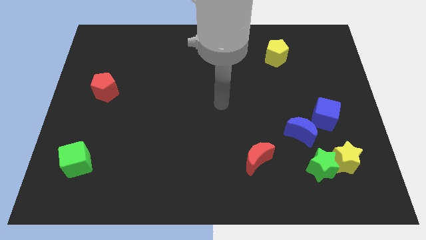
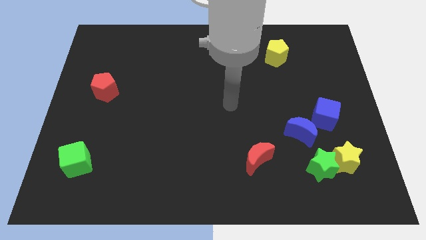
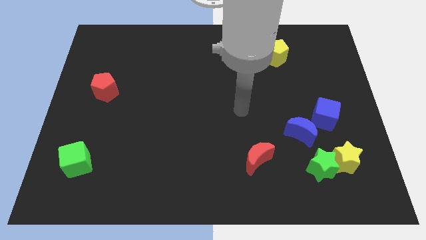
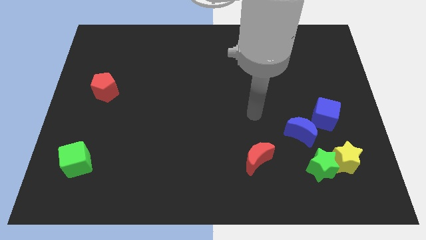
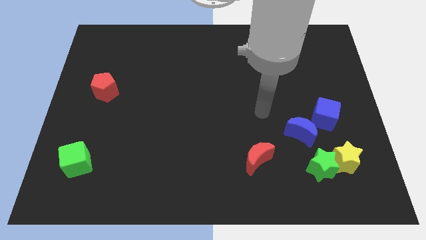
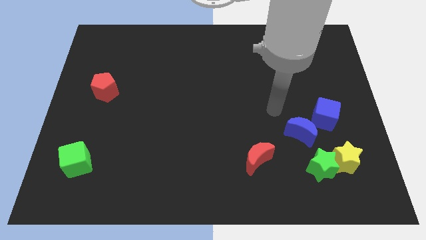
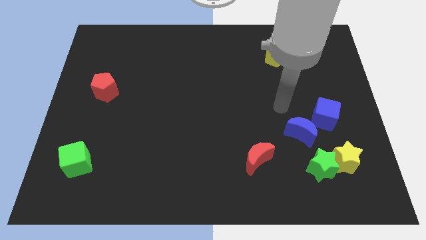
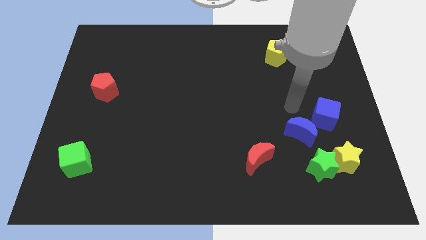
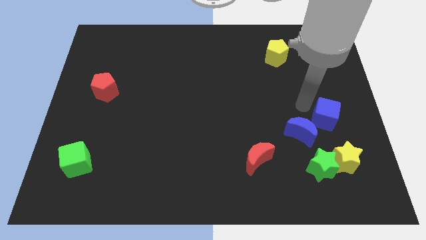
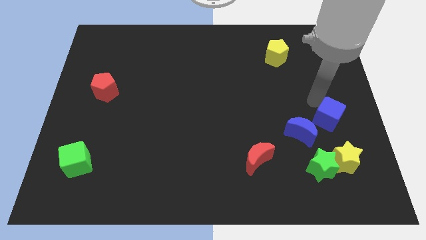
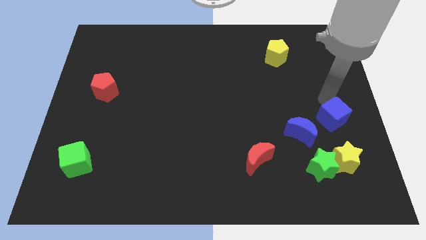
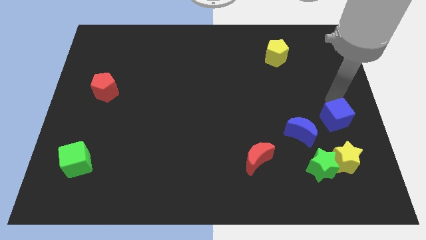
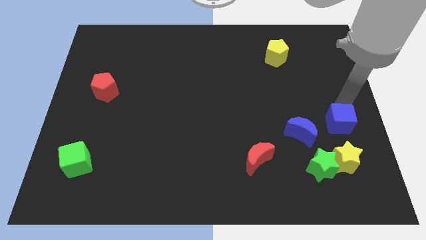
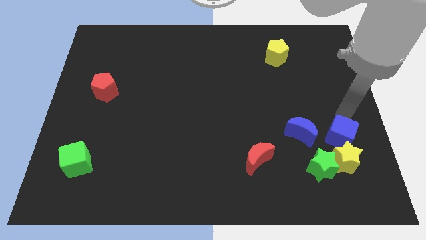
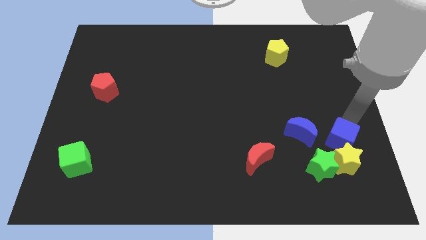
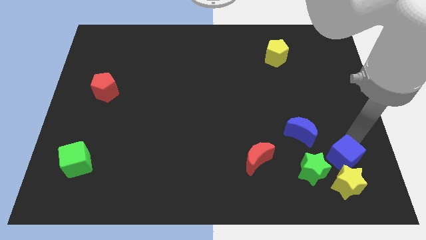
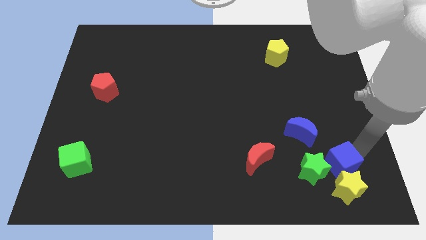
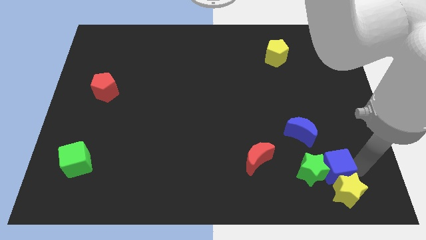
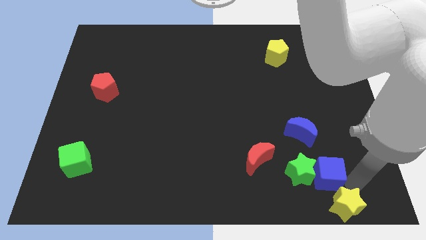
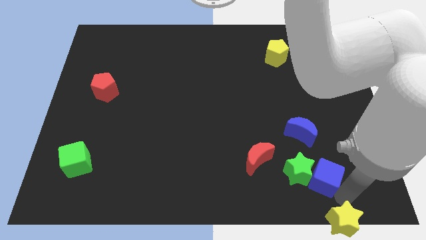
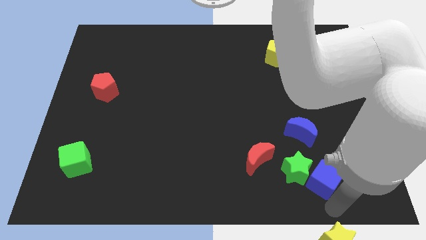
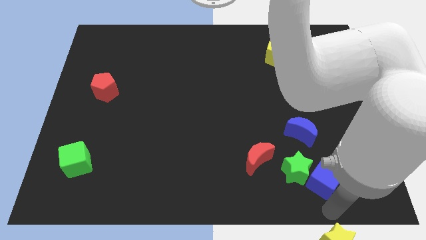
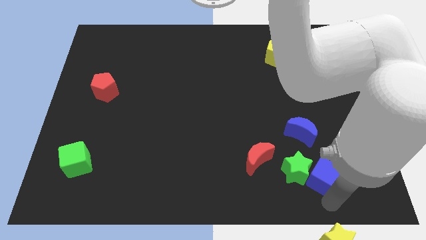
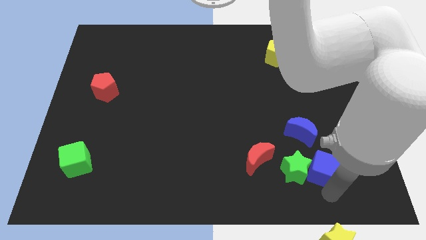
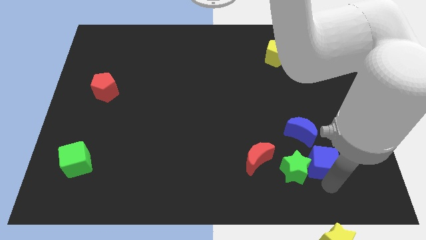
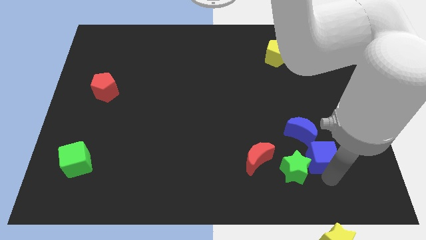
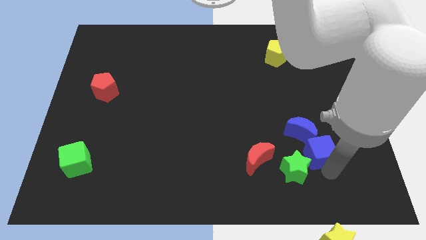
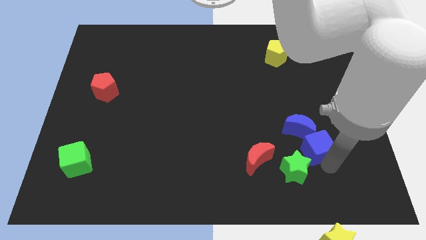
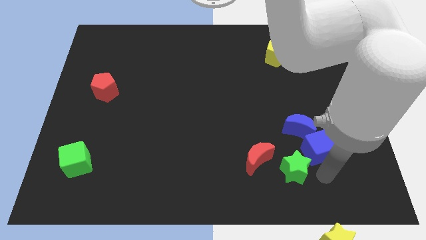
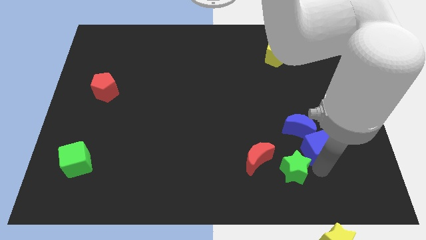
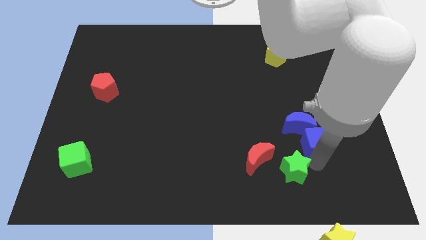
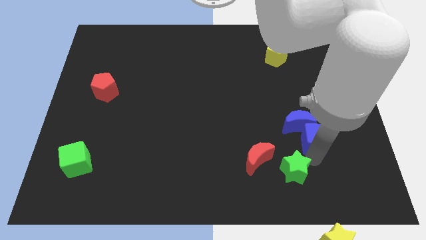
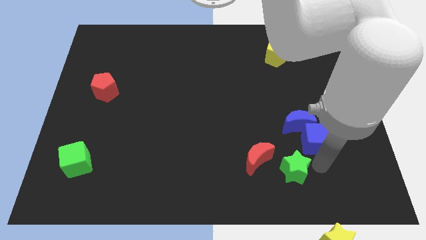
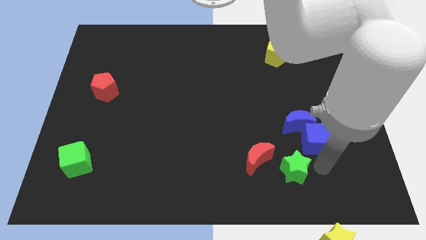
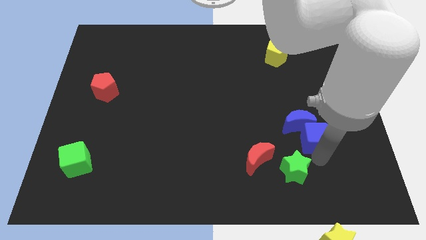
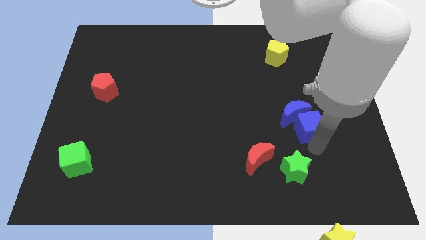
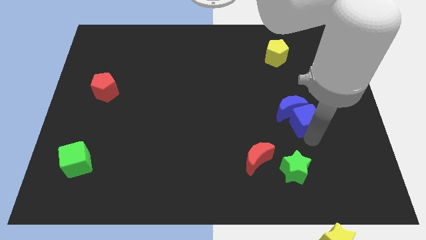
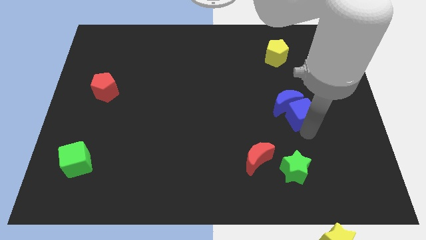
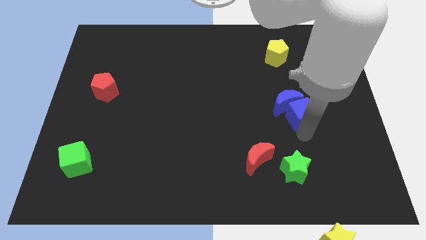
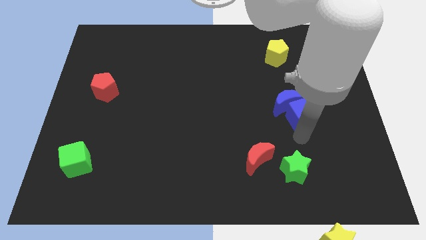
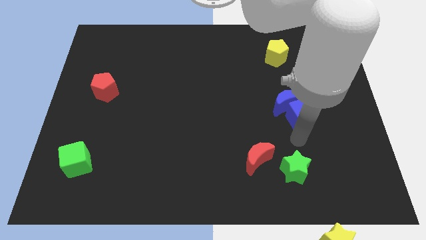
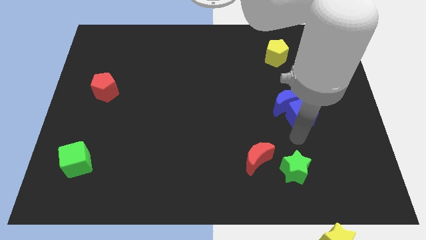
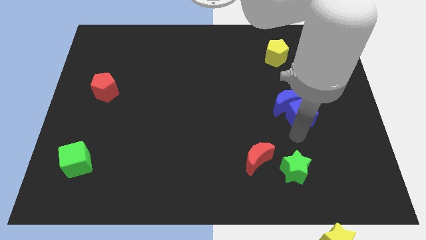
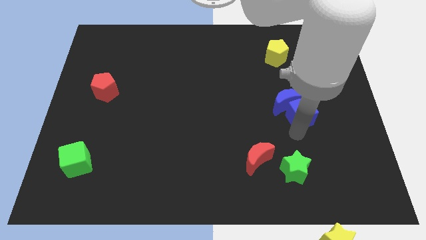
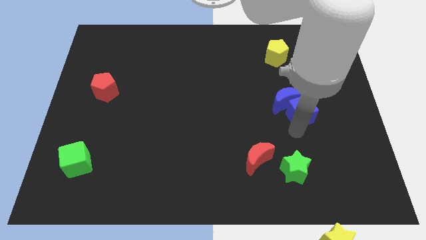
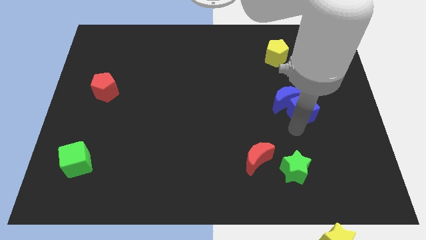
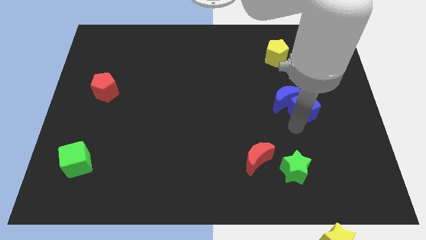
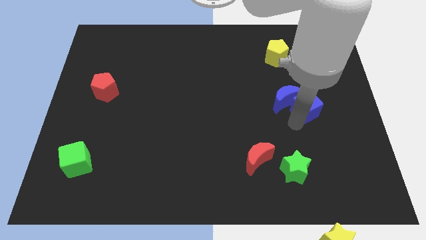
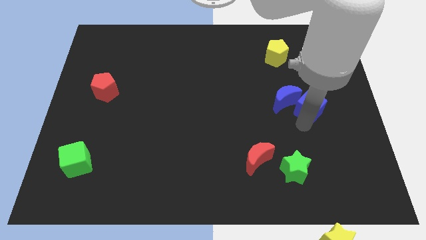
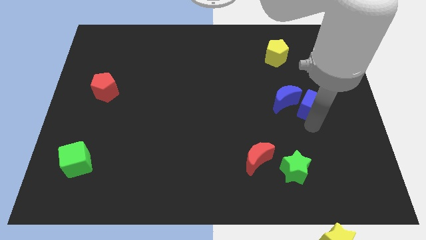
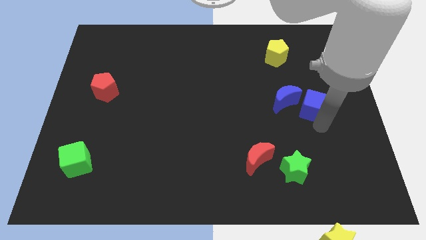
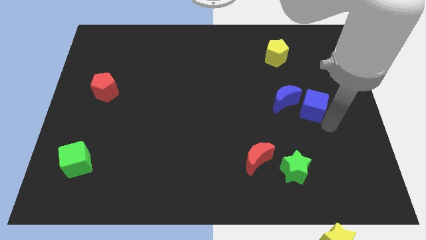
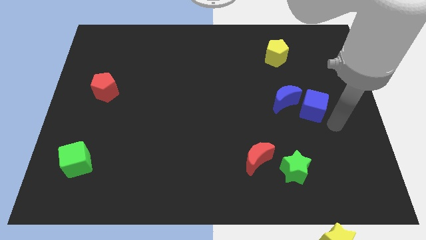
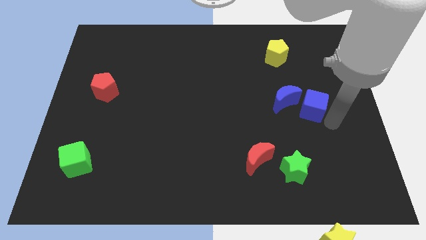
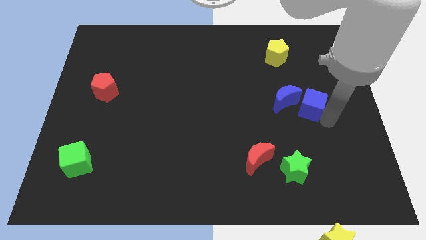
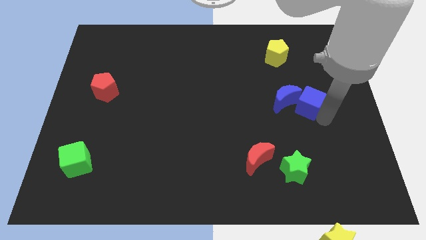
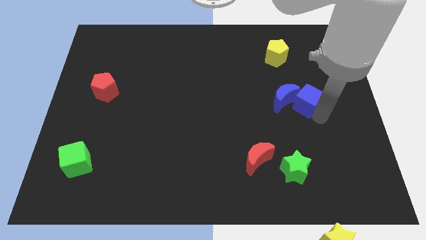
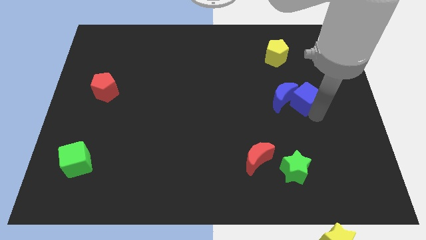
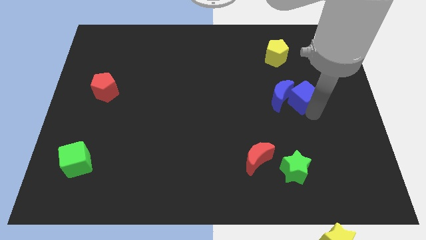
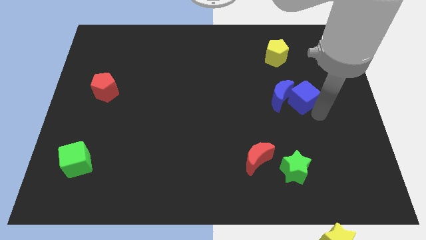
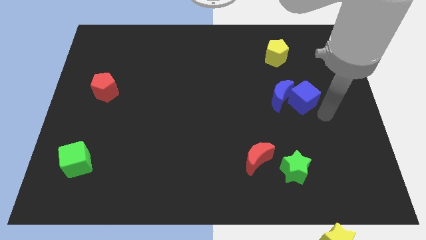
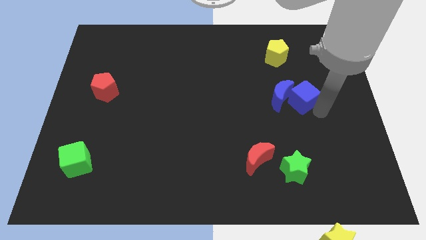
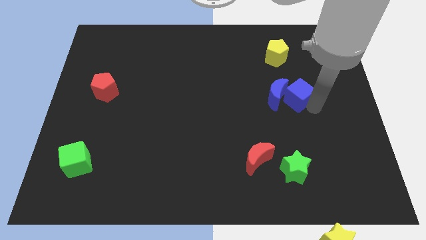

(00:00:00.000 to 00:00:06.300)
put the blue cube below the yellow pentagon
